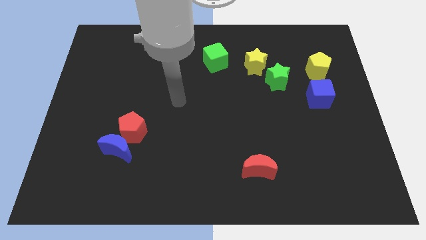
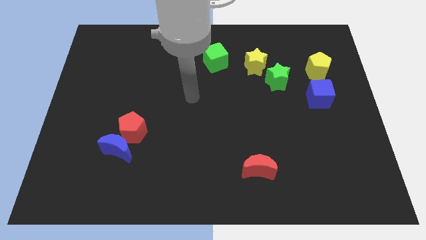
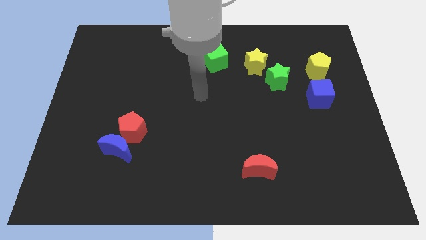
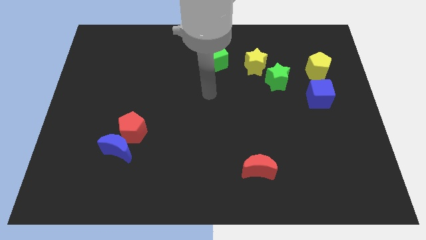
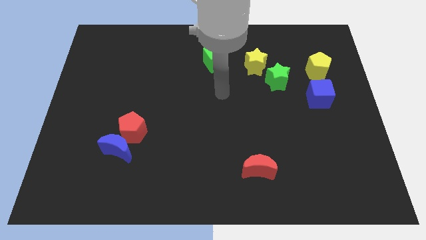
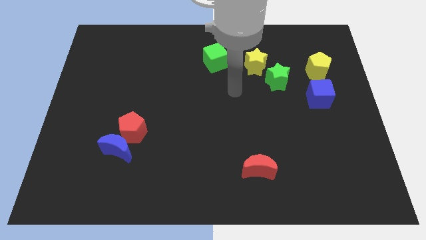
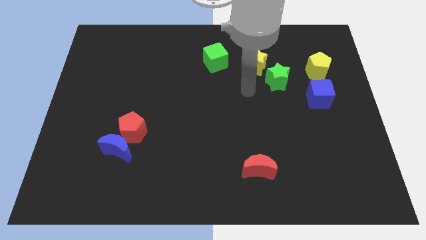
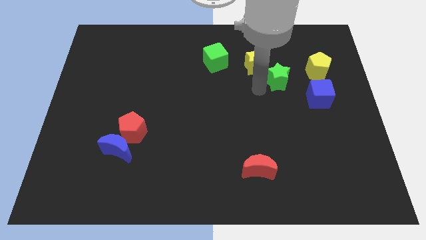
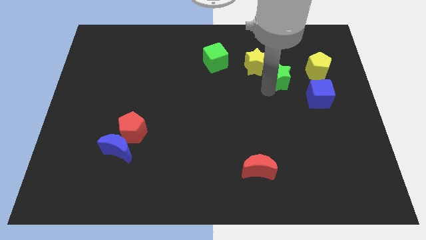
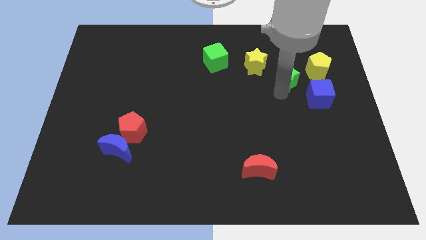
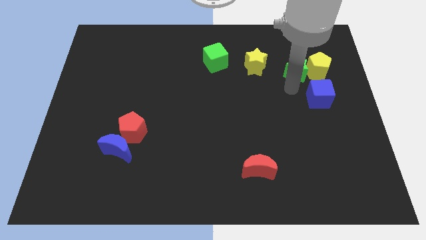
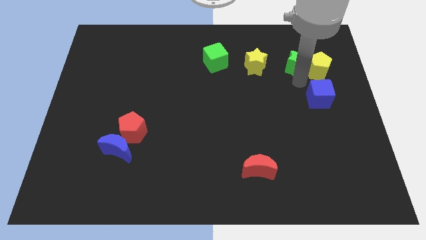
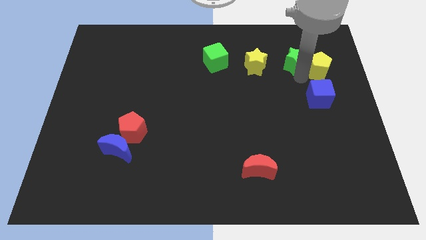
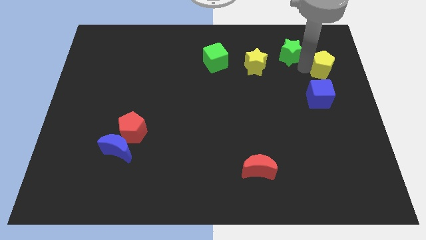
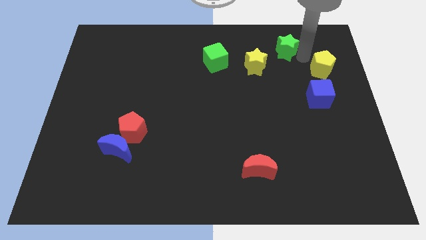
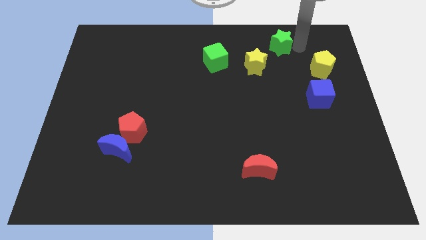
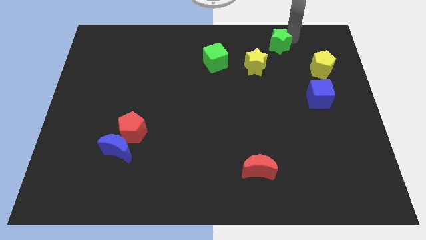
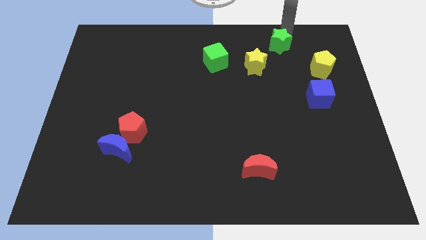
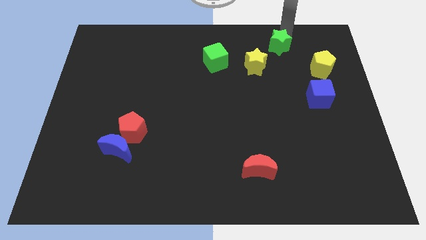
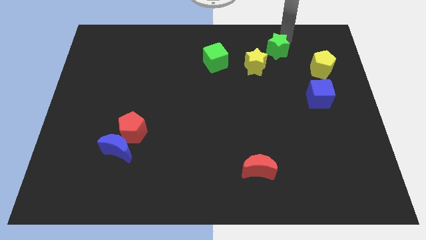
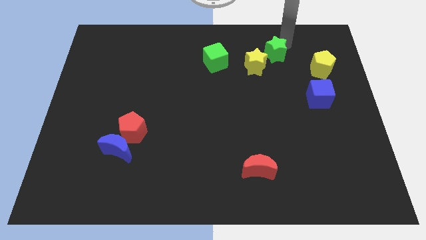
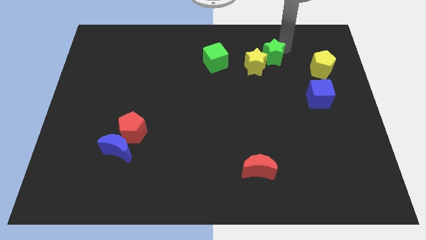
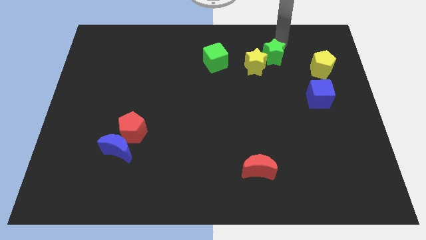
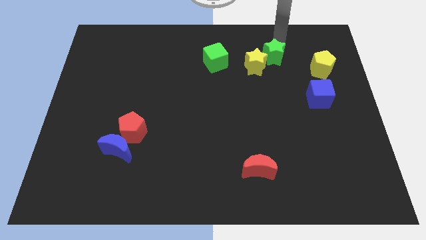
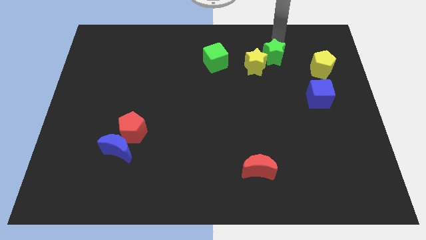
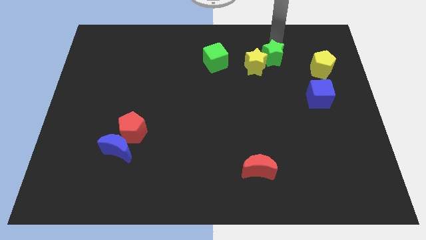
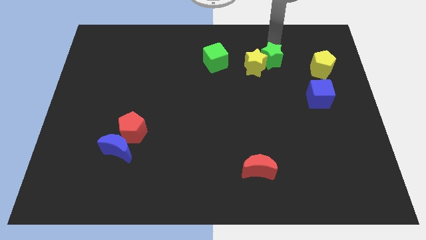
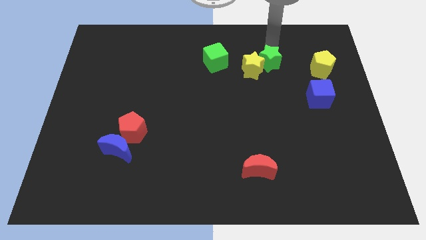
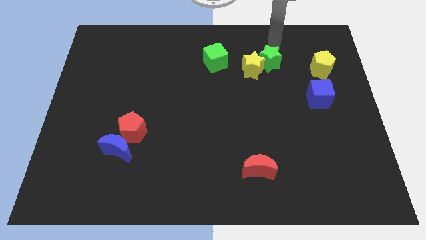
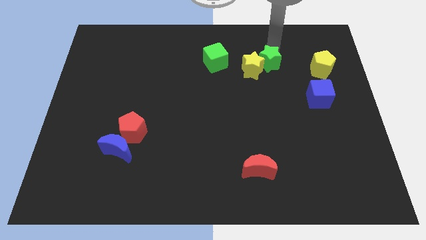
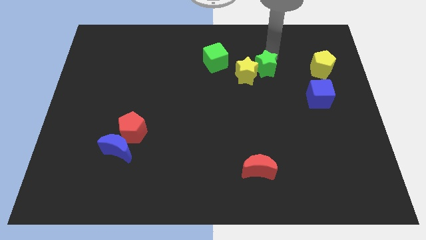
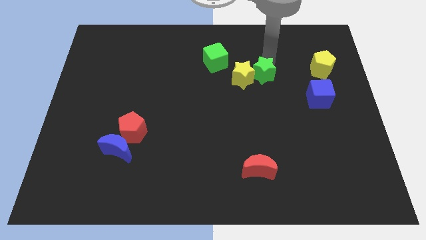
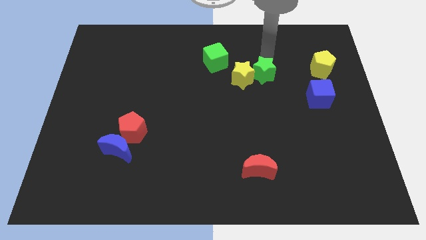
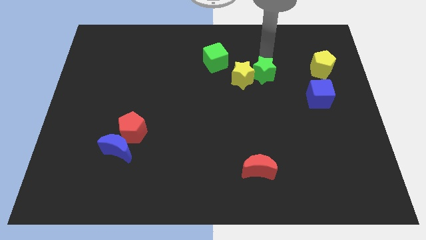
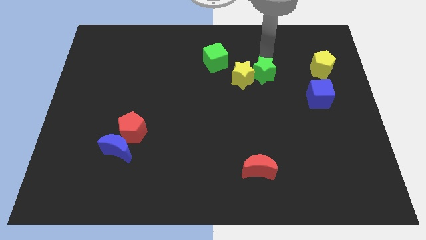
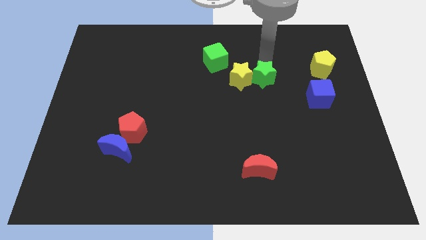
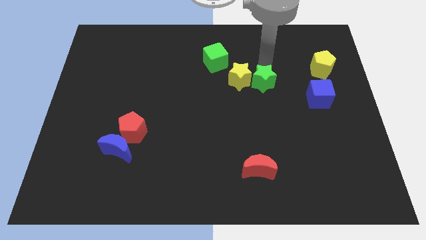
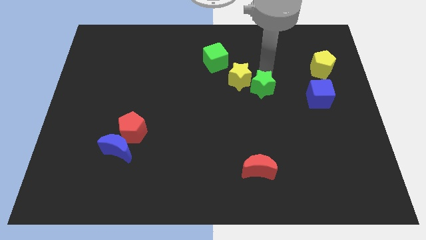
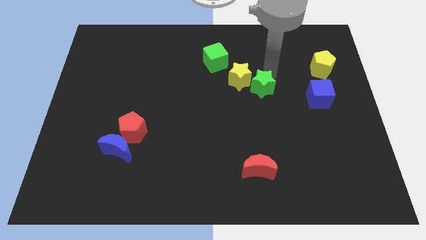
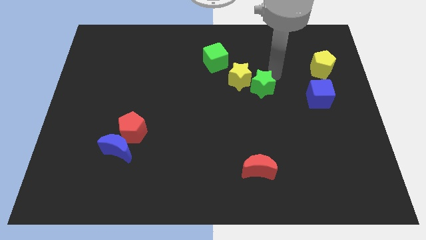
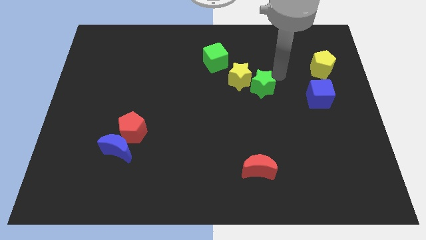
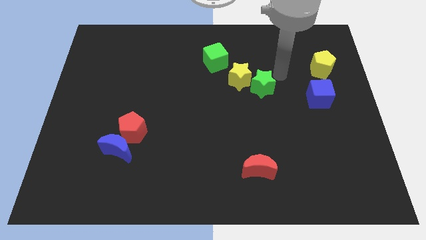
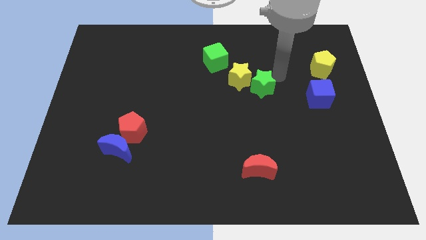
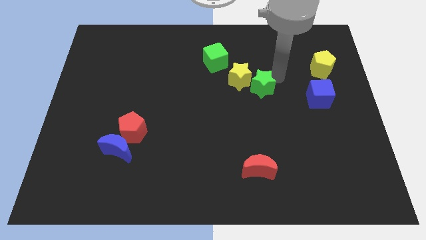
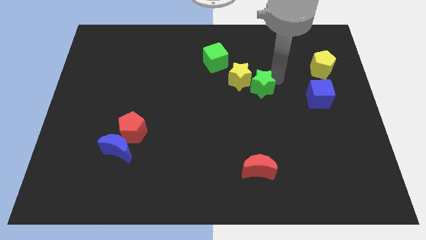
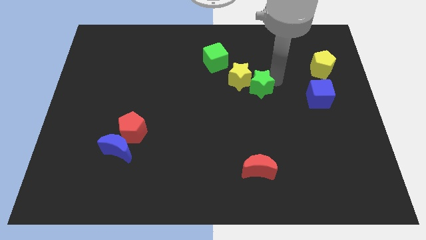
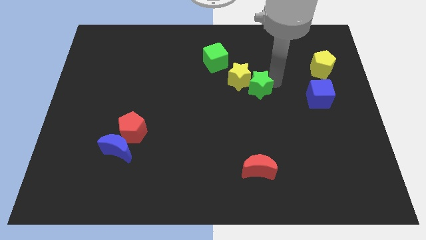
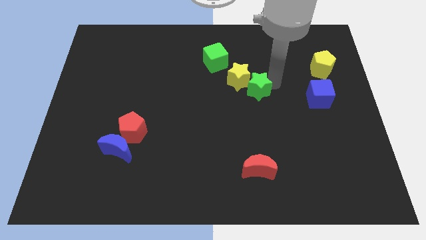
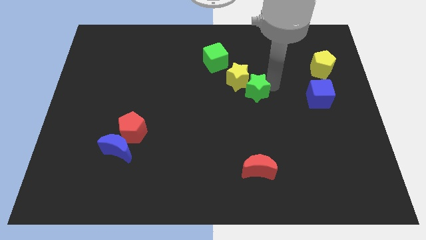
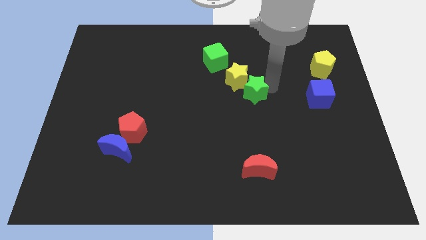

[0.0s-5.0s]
slide the green star downwards and left a bit

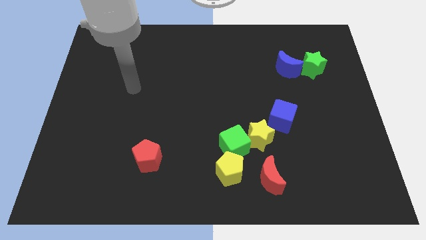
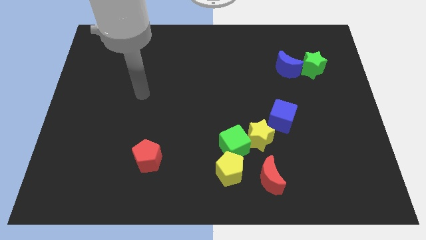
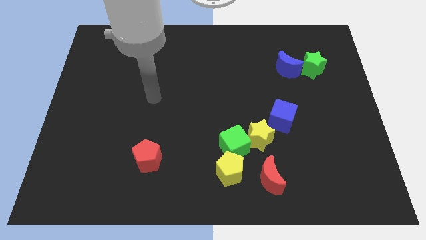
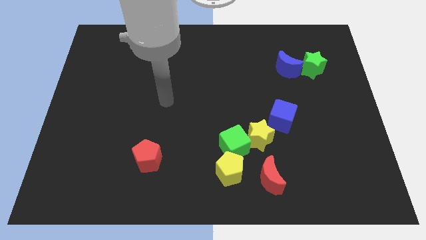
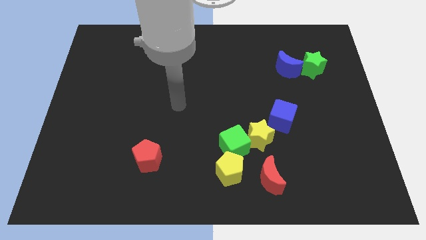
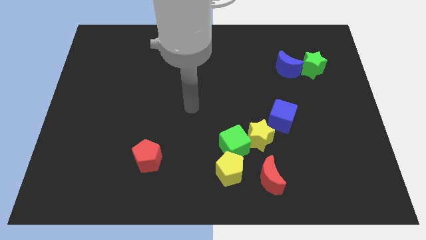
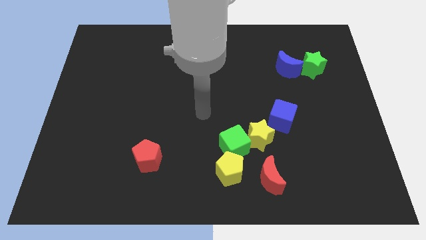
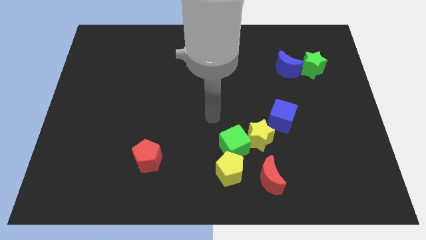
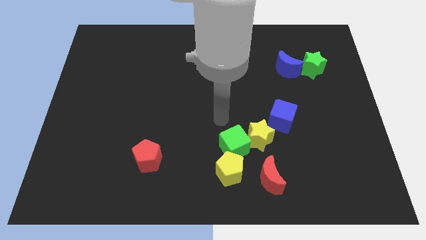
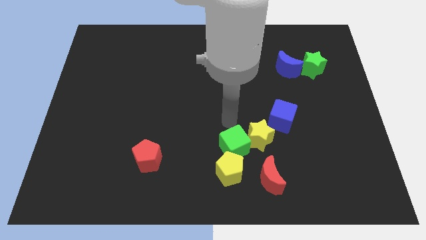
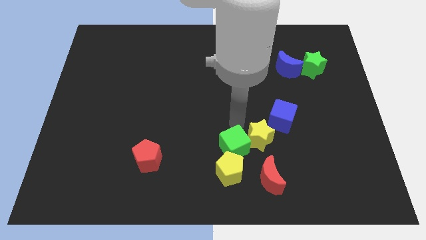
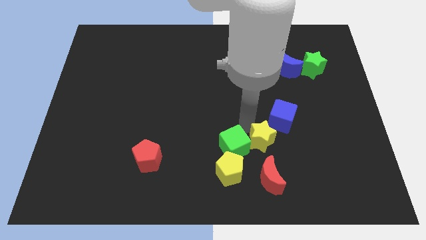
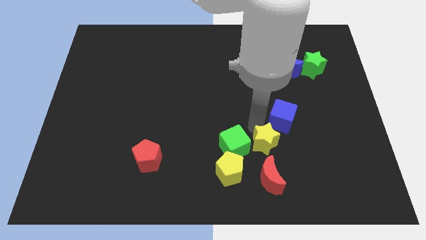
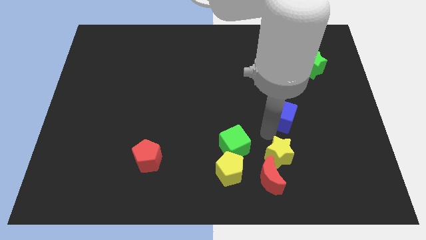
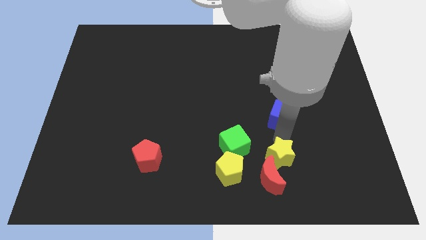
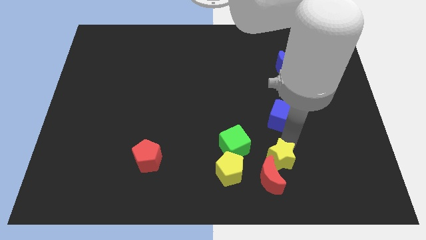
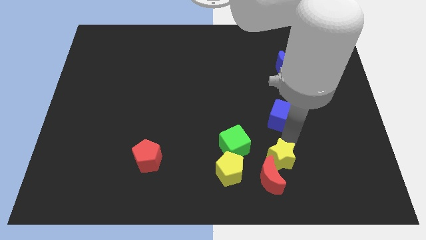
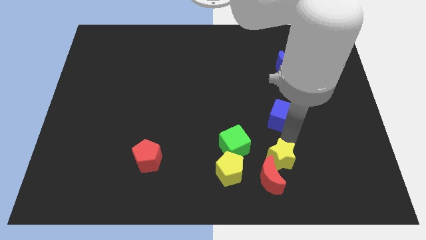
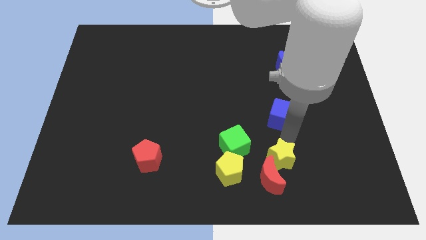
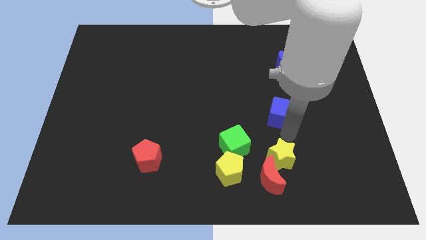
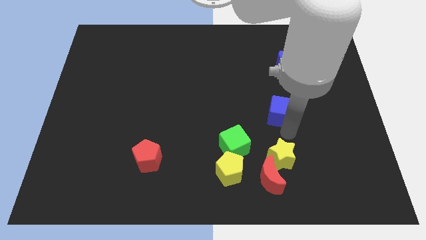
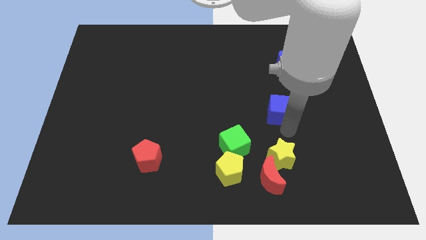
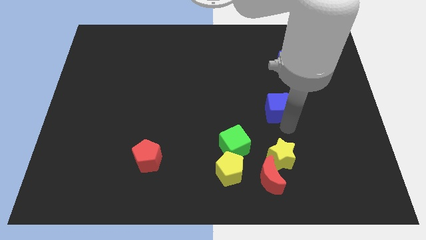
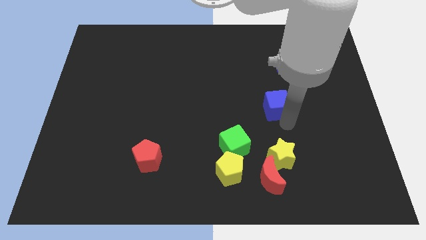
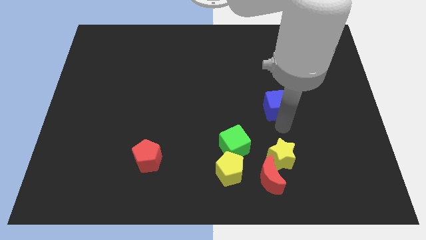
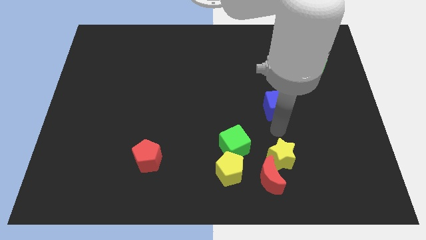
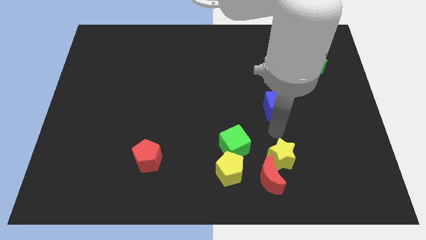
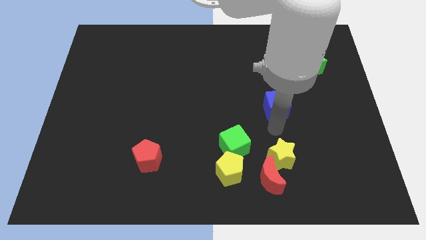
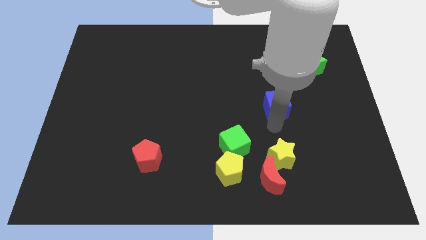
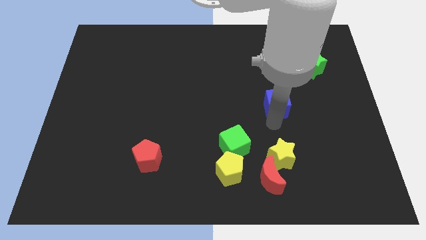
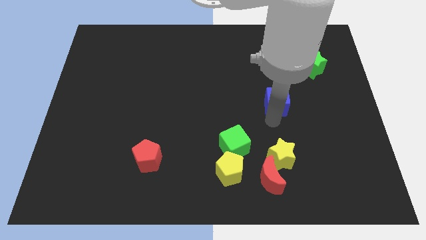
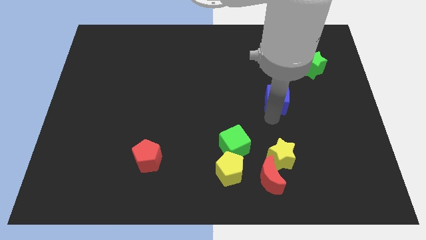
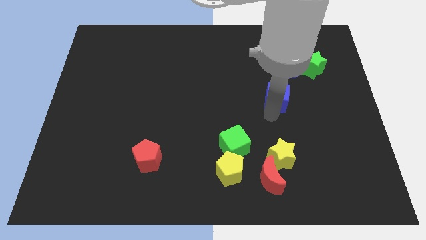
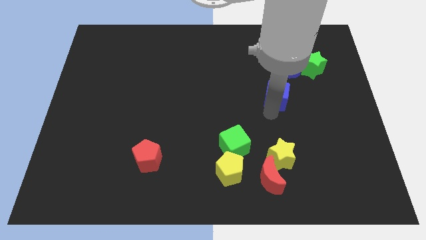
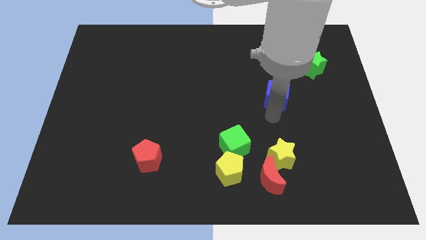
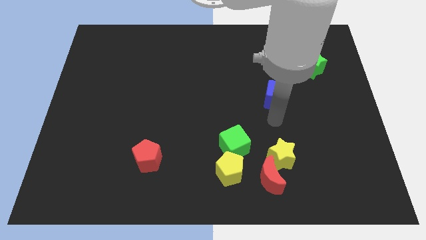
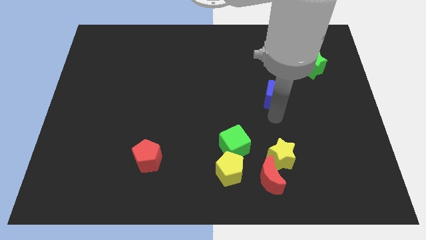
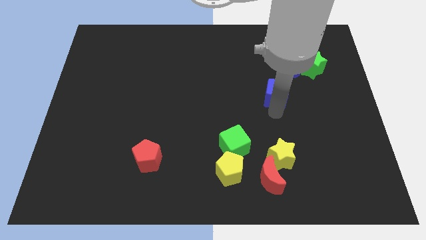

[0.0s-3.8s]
slightly push the blue cube up
